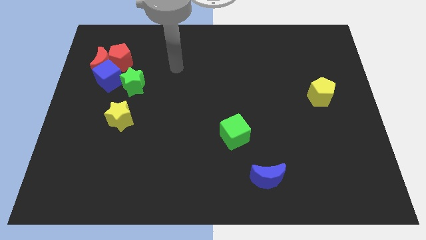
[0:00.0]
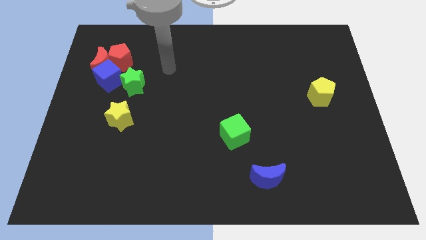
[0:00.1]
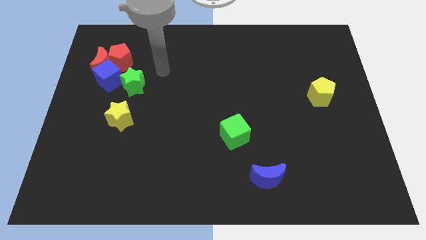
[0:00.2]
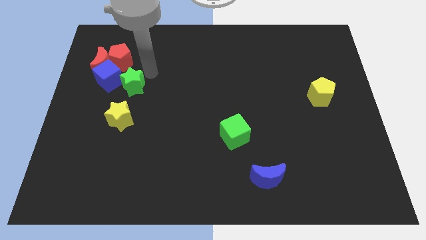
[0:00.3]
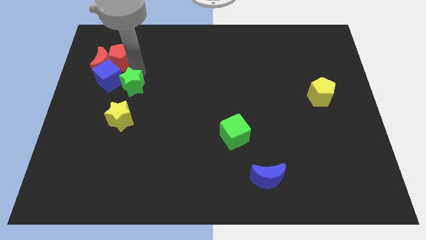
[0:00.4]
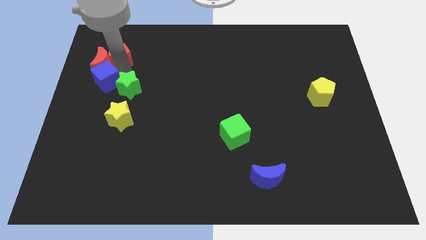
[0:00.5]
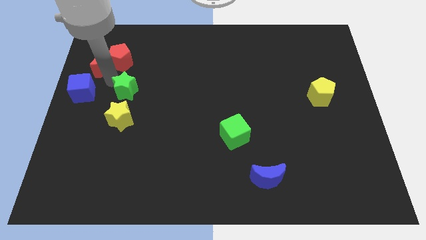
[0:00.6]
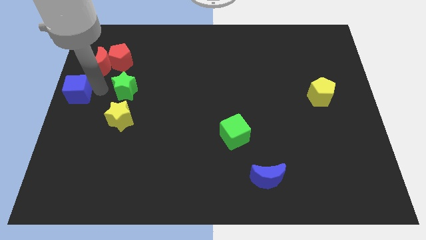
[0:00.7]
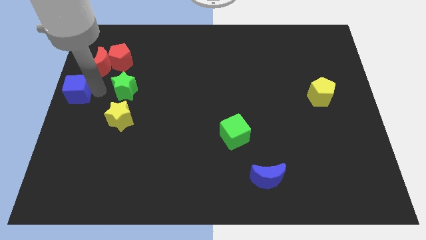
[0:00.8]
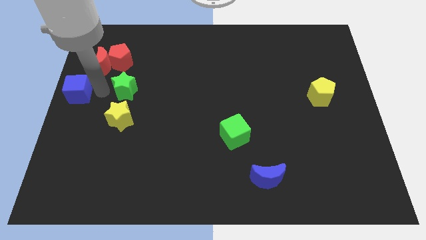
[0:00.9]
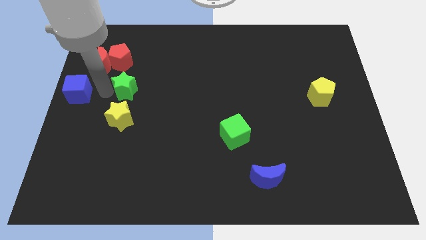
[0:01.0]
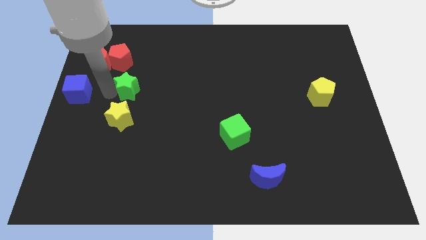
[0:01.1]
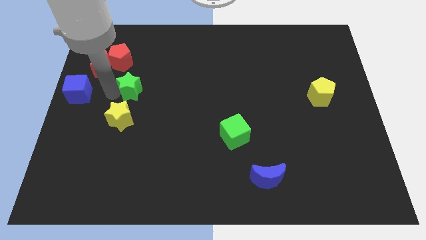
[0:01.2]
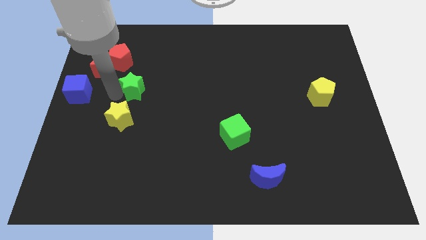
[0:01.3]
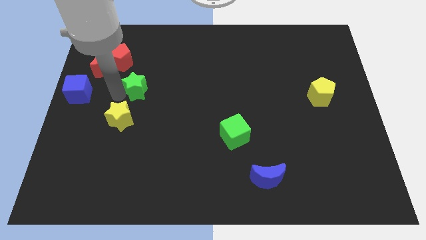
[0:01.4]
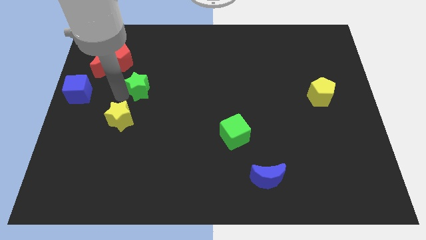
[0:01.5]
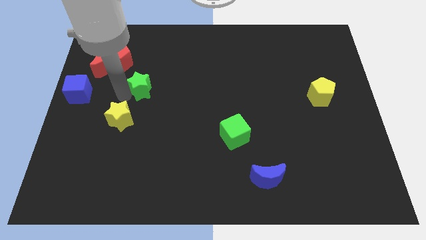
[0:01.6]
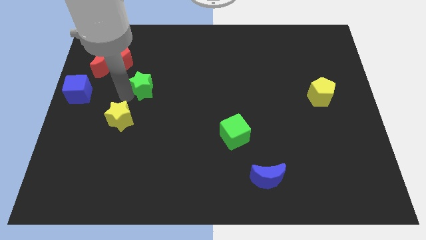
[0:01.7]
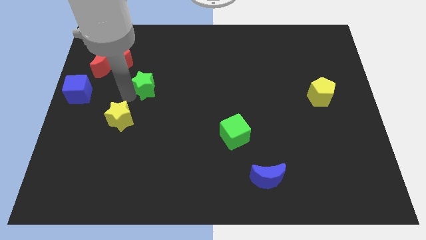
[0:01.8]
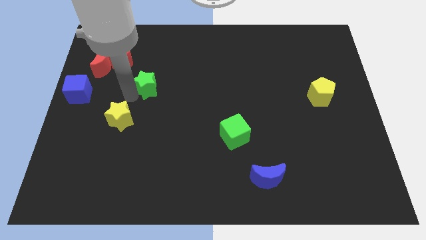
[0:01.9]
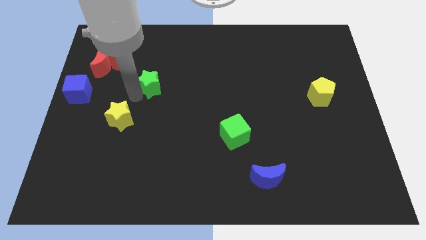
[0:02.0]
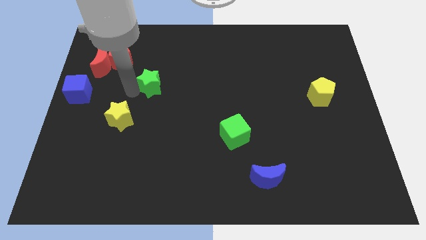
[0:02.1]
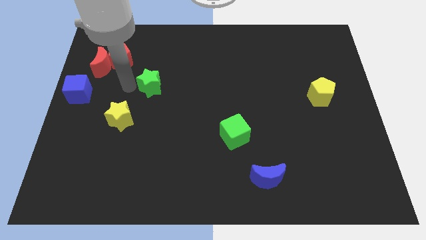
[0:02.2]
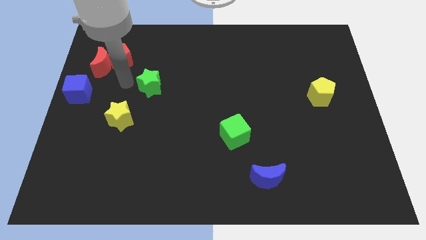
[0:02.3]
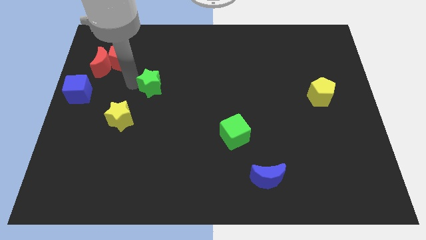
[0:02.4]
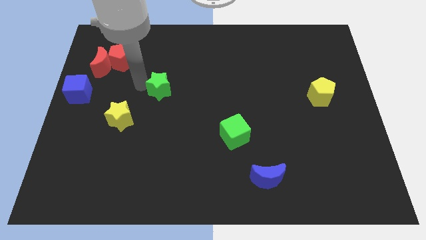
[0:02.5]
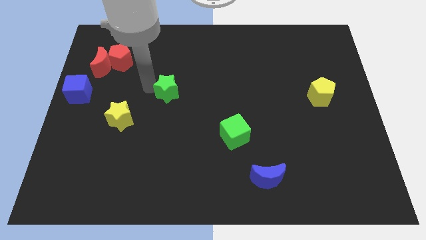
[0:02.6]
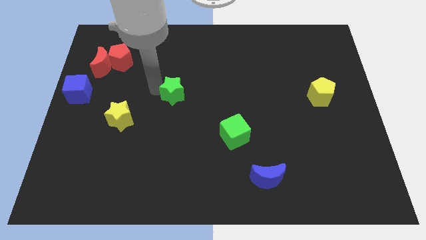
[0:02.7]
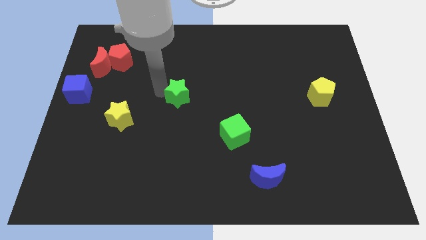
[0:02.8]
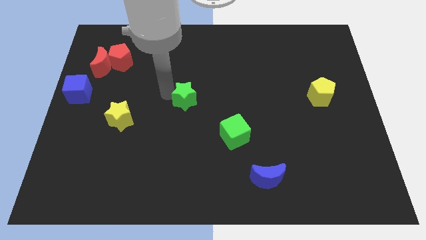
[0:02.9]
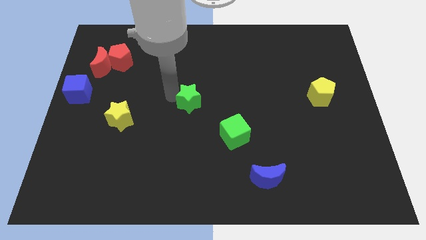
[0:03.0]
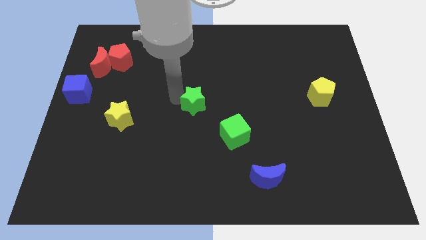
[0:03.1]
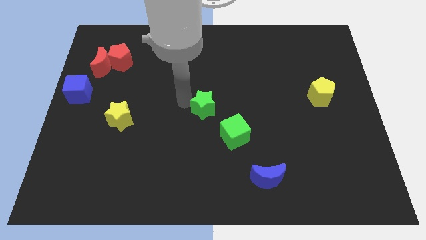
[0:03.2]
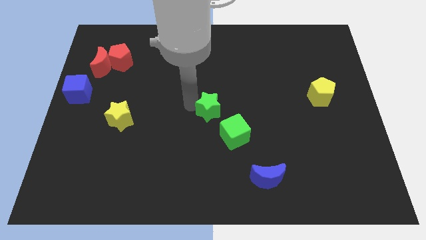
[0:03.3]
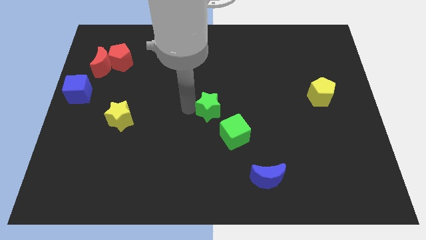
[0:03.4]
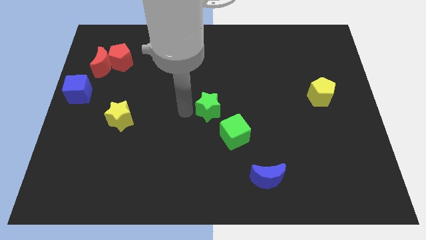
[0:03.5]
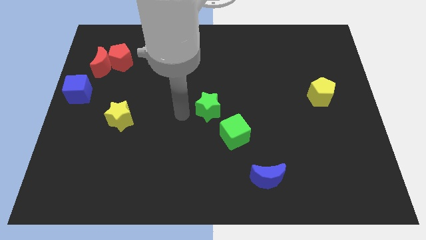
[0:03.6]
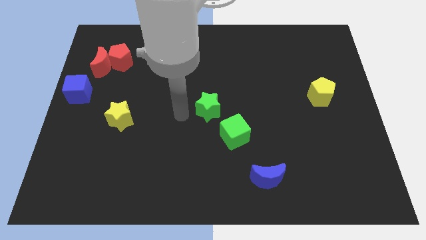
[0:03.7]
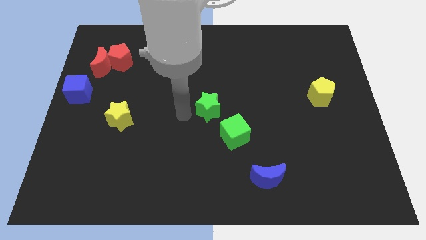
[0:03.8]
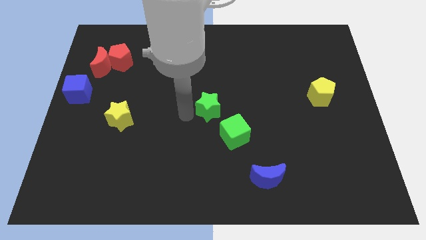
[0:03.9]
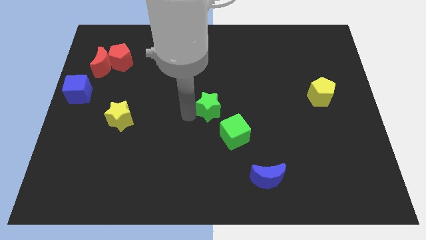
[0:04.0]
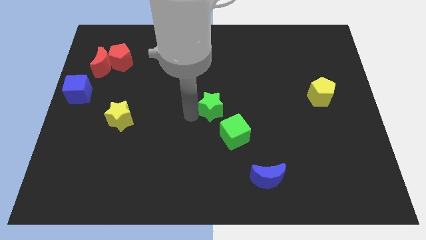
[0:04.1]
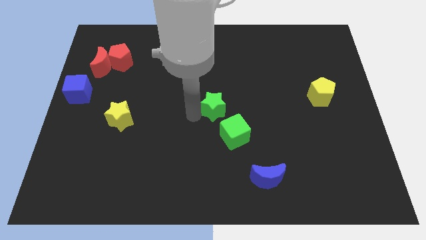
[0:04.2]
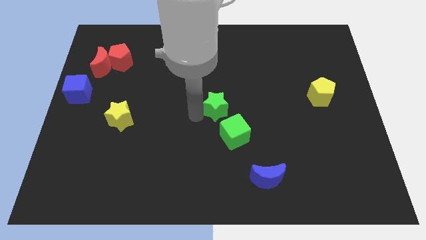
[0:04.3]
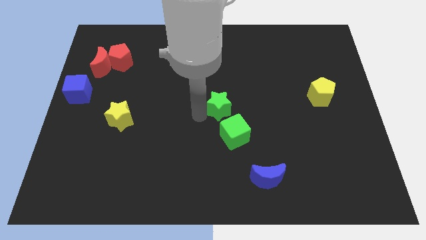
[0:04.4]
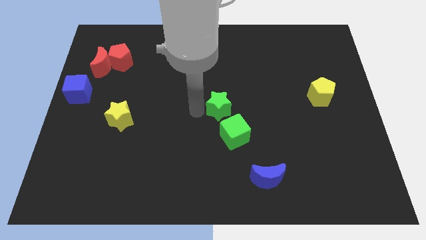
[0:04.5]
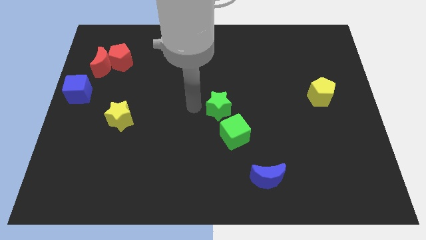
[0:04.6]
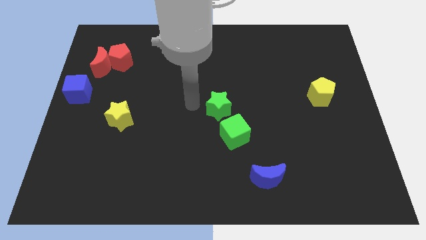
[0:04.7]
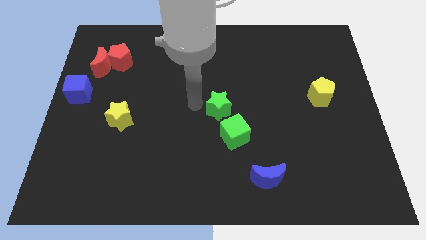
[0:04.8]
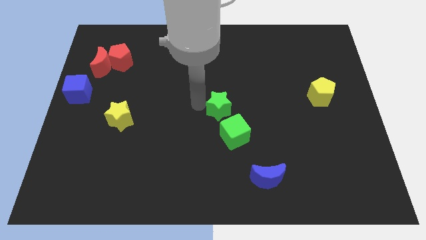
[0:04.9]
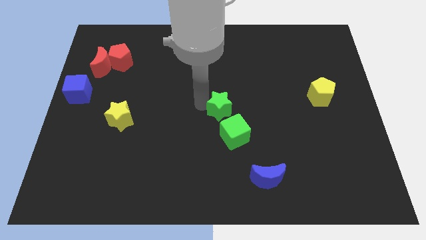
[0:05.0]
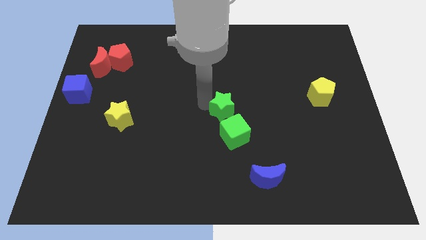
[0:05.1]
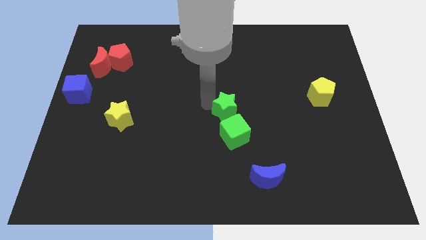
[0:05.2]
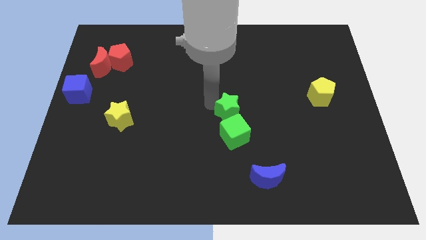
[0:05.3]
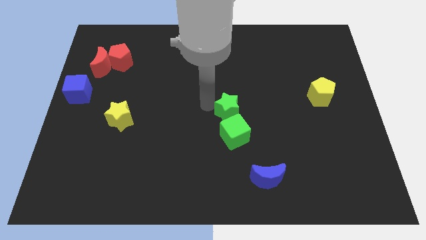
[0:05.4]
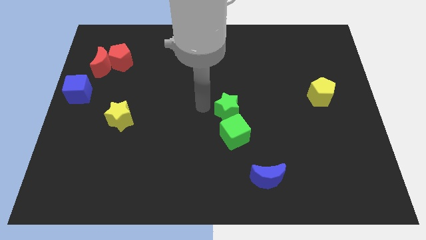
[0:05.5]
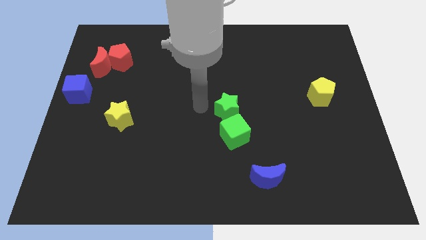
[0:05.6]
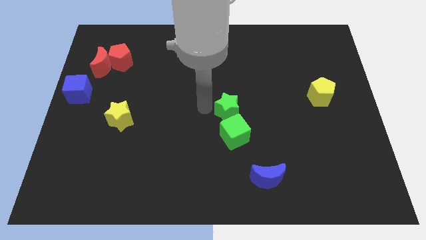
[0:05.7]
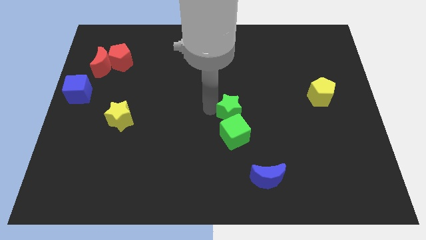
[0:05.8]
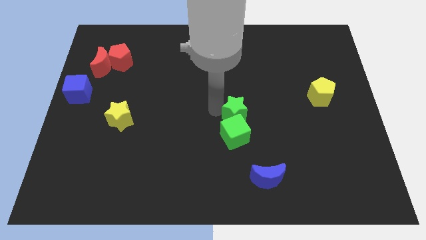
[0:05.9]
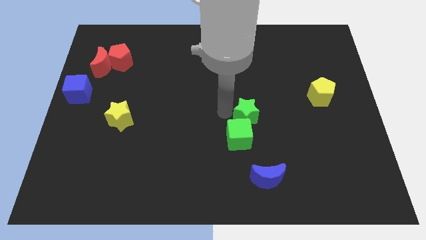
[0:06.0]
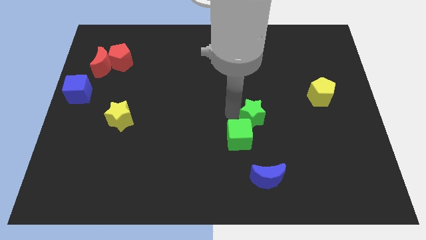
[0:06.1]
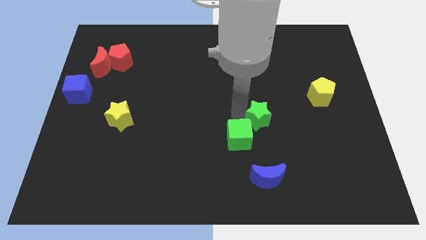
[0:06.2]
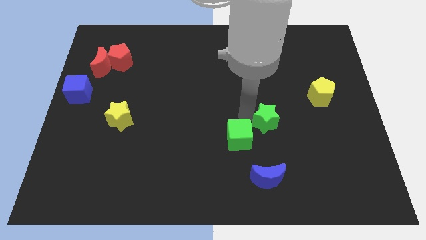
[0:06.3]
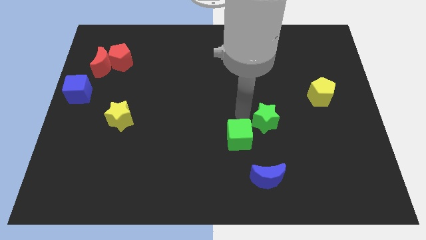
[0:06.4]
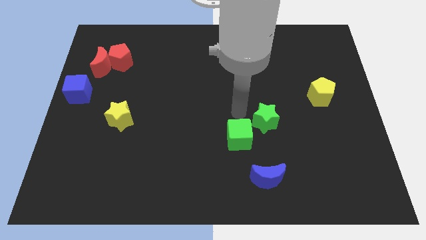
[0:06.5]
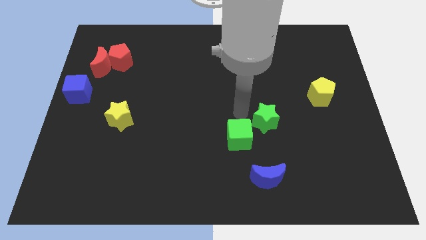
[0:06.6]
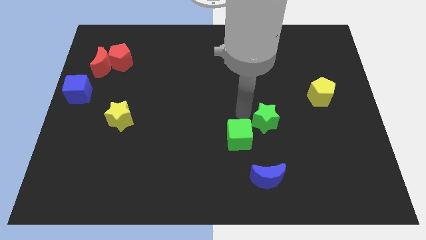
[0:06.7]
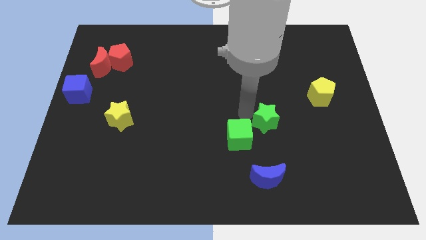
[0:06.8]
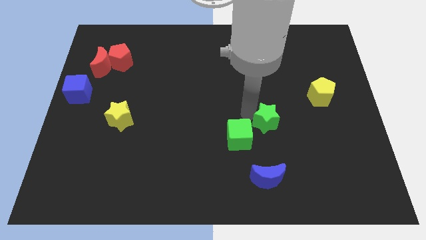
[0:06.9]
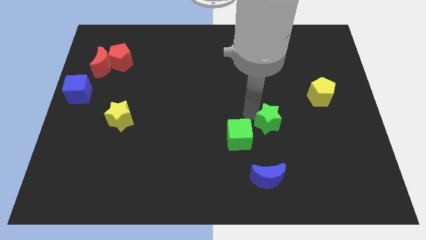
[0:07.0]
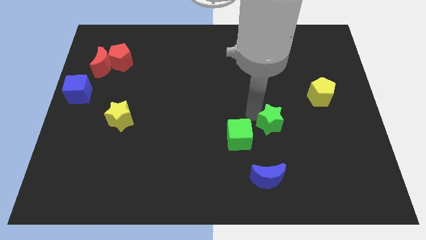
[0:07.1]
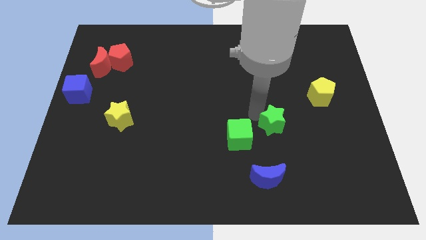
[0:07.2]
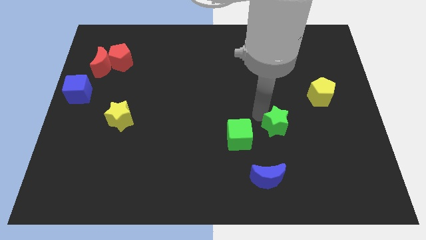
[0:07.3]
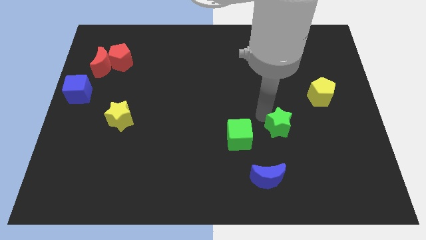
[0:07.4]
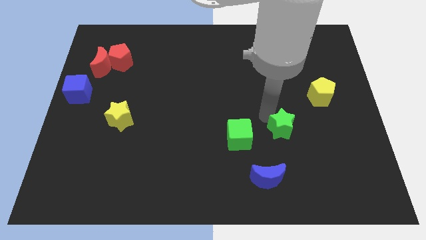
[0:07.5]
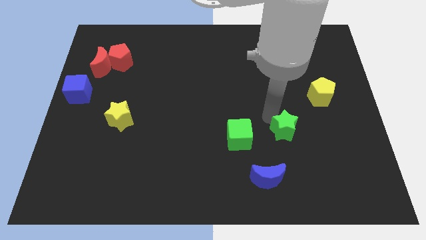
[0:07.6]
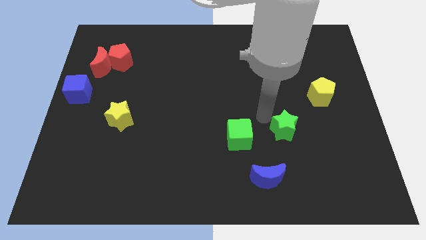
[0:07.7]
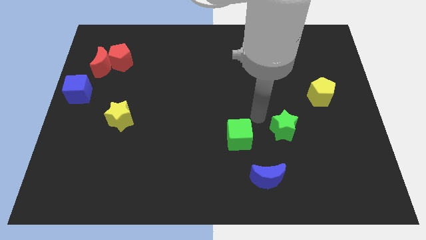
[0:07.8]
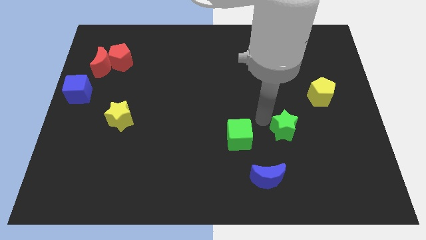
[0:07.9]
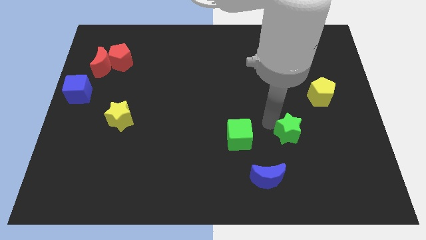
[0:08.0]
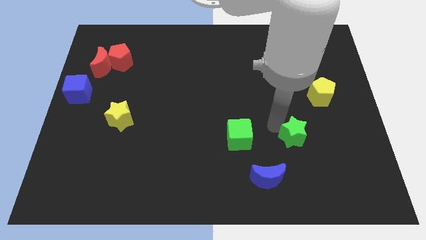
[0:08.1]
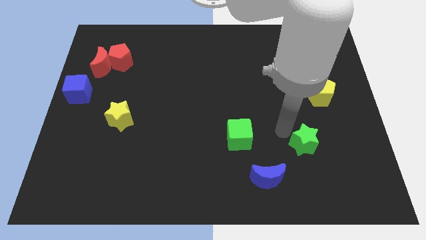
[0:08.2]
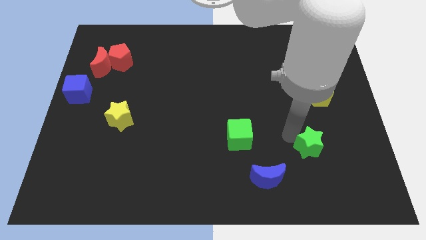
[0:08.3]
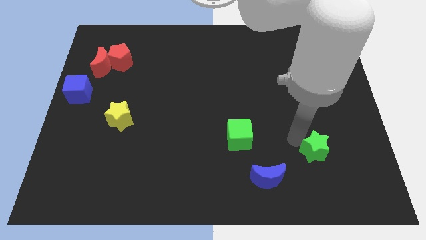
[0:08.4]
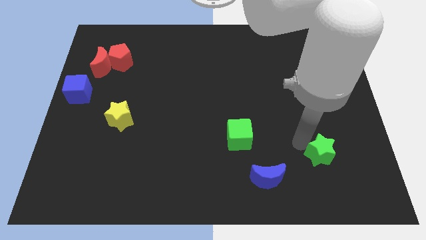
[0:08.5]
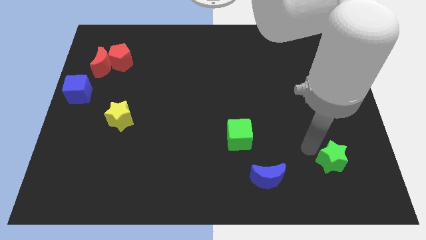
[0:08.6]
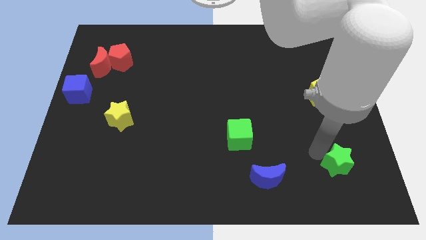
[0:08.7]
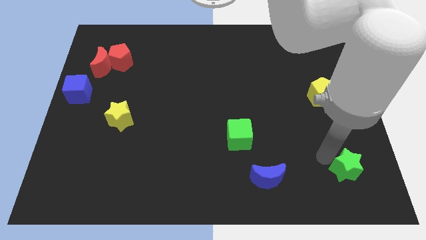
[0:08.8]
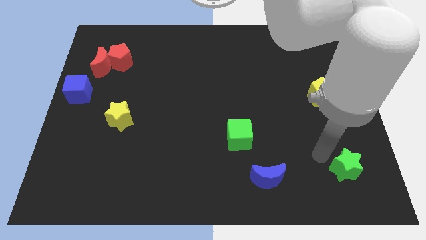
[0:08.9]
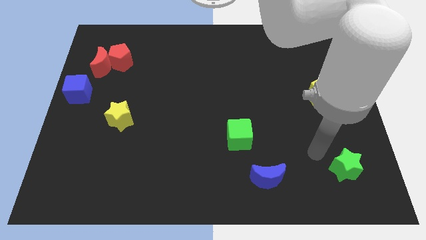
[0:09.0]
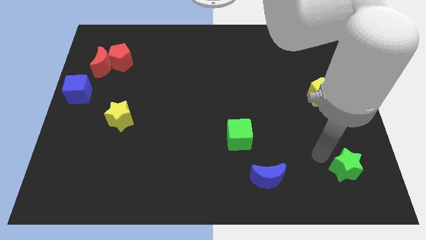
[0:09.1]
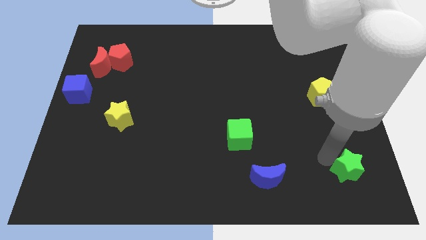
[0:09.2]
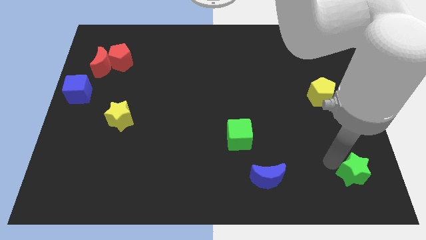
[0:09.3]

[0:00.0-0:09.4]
move the green star to the lower right corner
